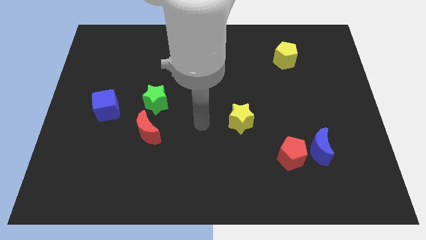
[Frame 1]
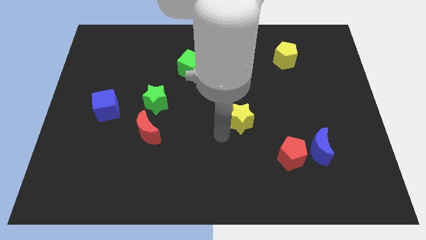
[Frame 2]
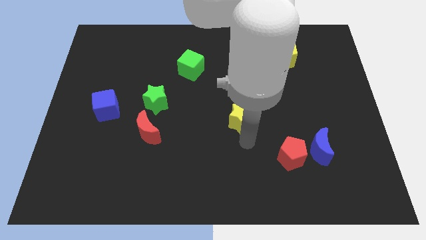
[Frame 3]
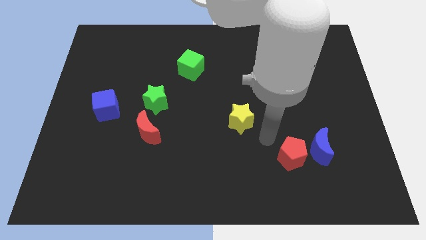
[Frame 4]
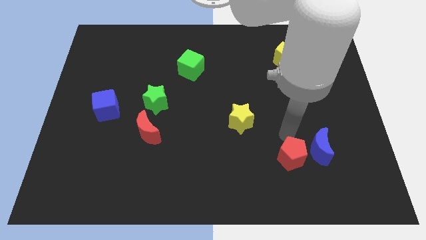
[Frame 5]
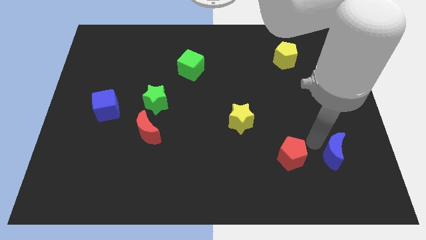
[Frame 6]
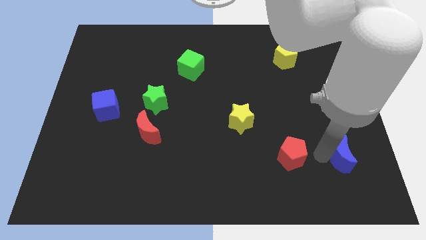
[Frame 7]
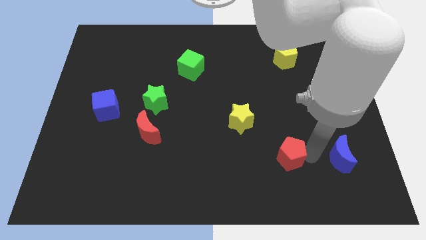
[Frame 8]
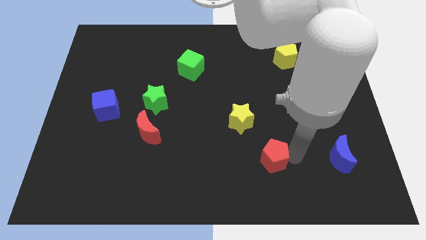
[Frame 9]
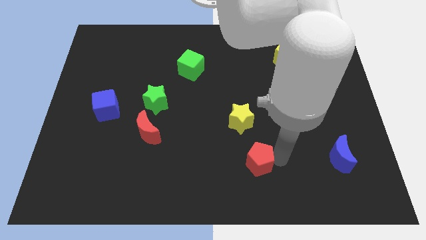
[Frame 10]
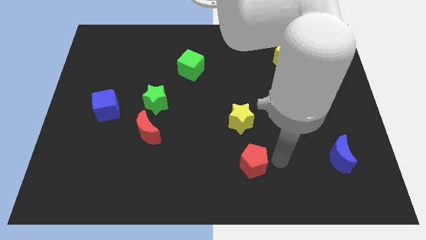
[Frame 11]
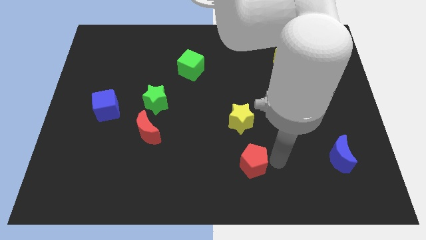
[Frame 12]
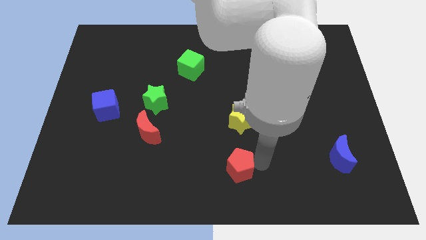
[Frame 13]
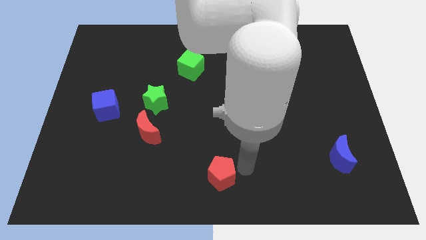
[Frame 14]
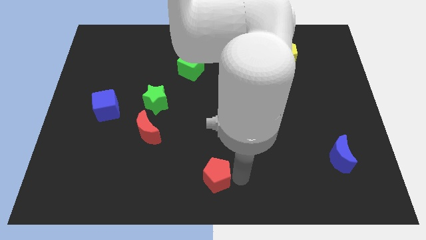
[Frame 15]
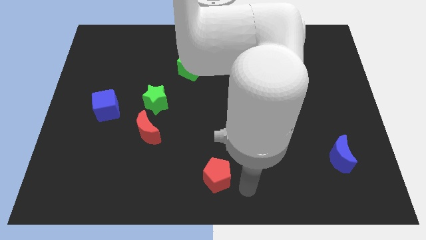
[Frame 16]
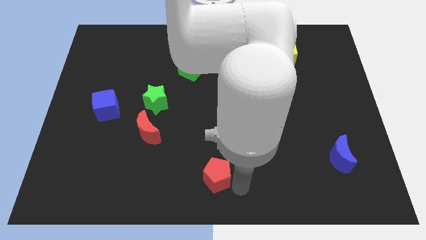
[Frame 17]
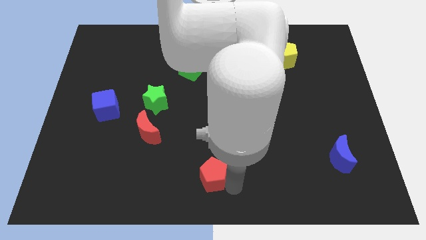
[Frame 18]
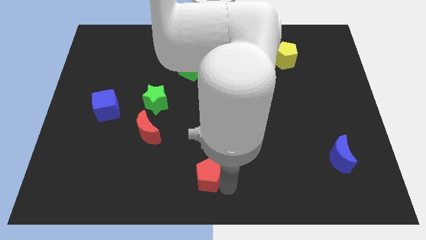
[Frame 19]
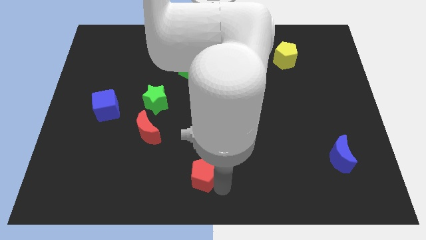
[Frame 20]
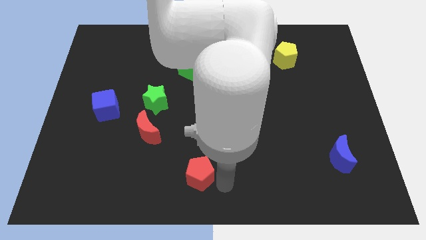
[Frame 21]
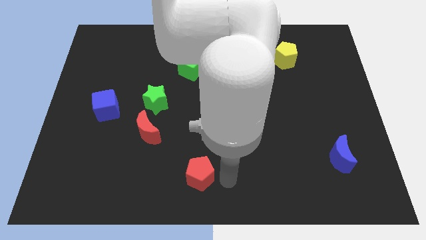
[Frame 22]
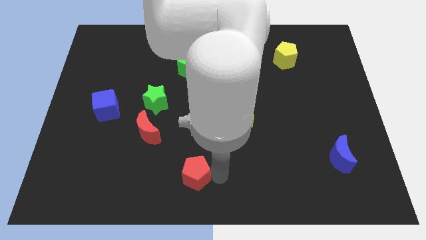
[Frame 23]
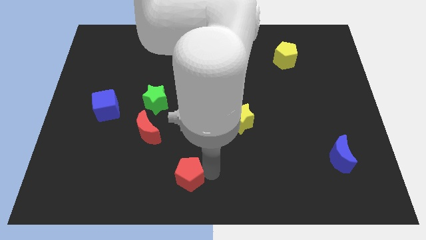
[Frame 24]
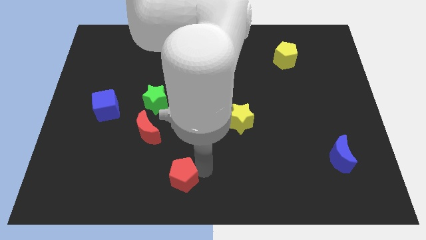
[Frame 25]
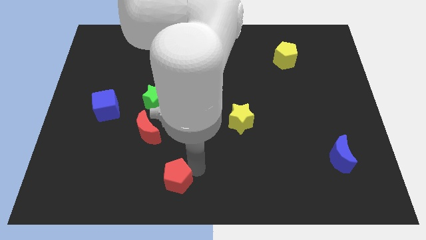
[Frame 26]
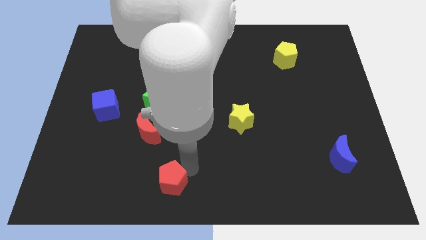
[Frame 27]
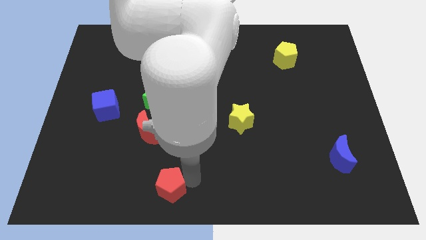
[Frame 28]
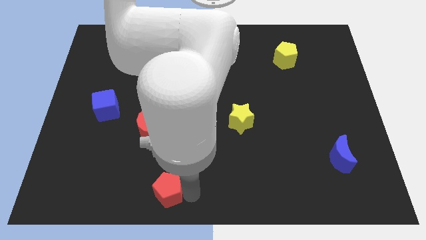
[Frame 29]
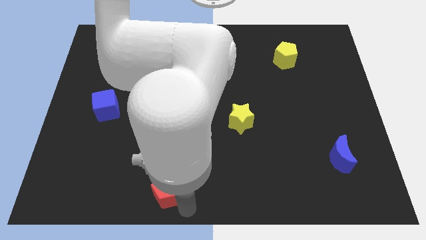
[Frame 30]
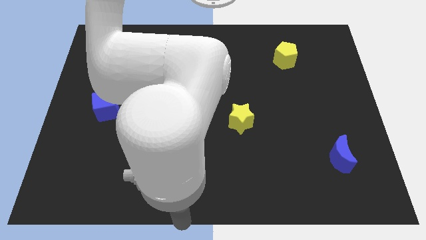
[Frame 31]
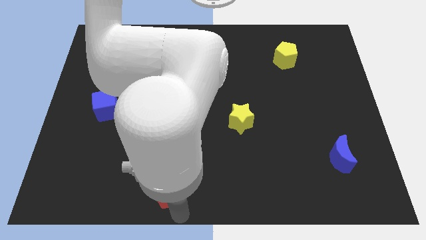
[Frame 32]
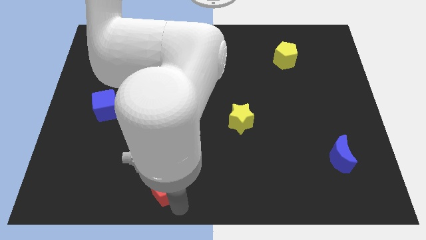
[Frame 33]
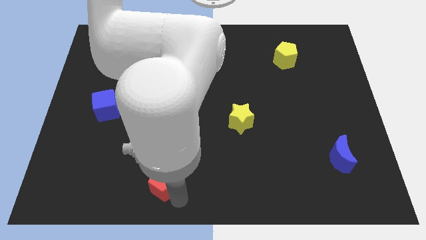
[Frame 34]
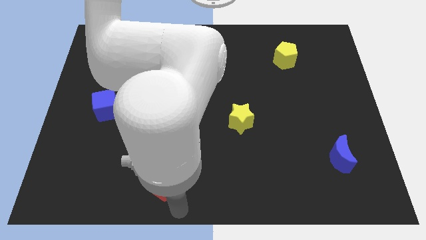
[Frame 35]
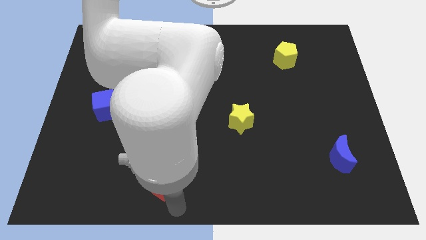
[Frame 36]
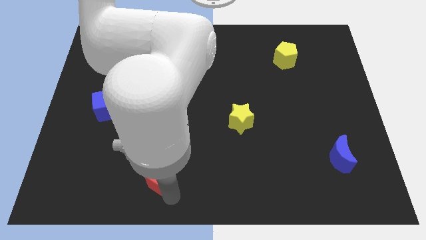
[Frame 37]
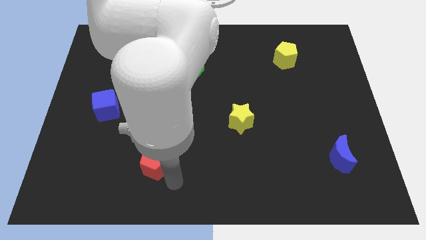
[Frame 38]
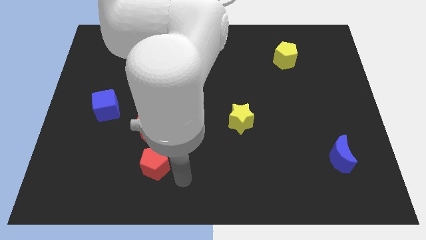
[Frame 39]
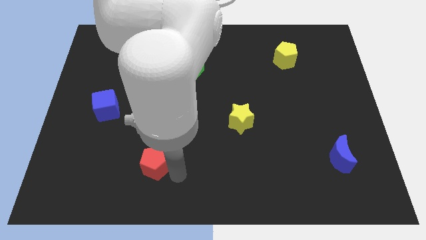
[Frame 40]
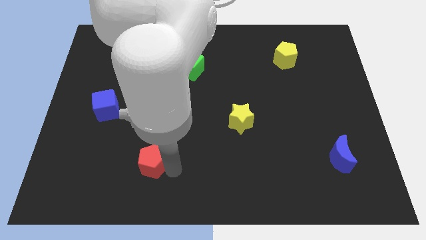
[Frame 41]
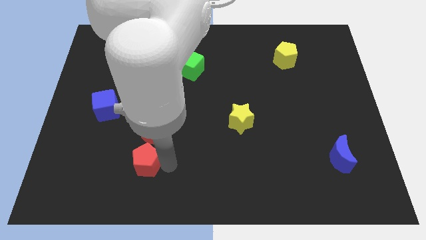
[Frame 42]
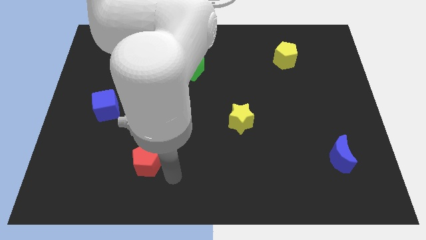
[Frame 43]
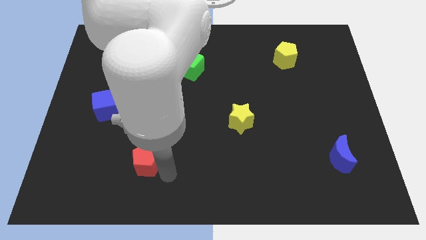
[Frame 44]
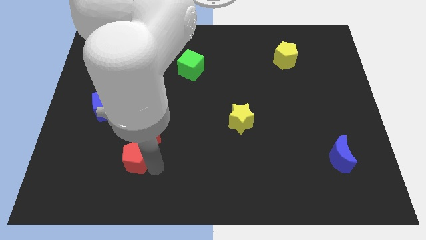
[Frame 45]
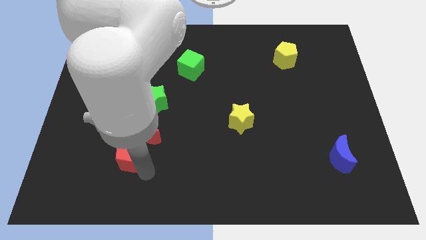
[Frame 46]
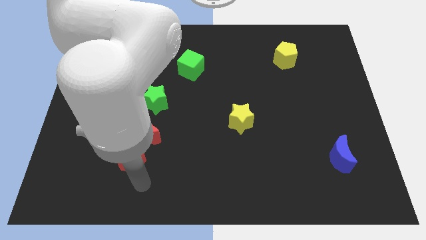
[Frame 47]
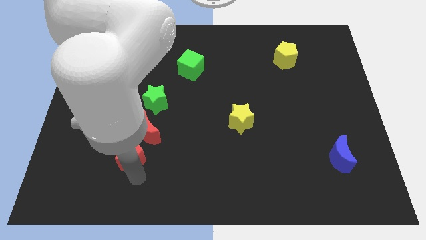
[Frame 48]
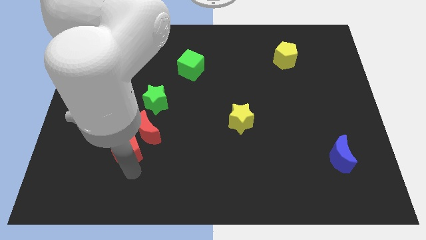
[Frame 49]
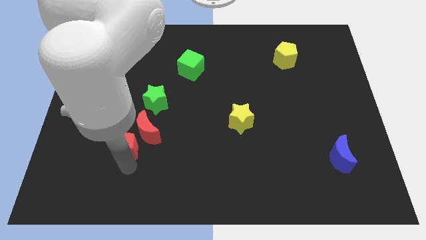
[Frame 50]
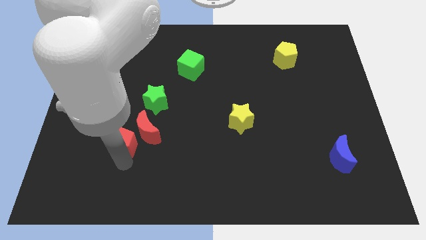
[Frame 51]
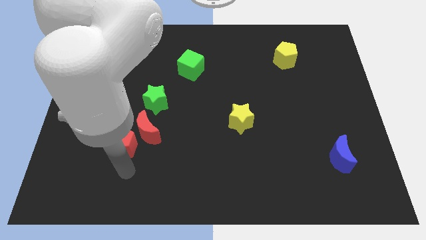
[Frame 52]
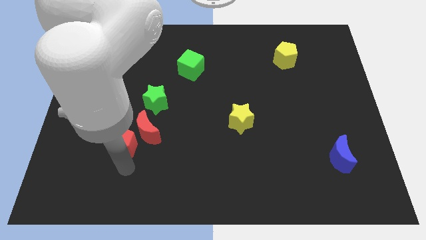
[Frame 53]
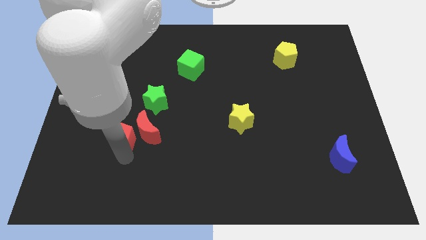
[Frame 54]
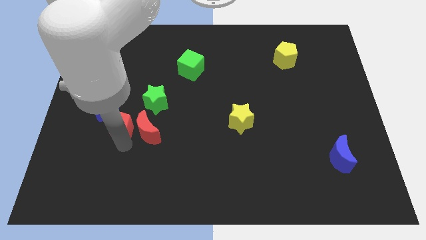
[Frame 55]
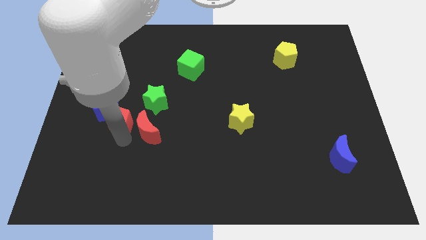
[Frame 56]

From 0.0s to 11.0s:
slide the red pentagon to the blue cube

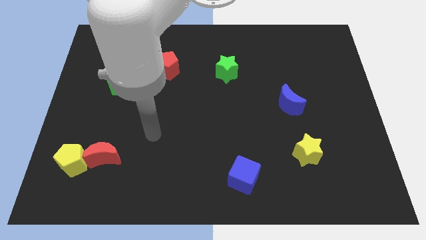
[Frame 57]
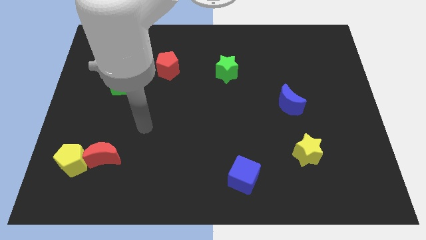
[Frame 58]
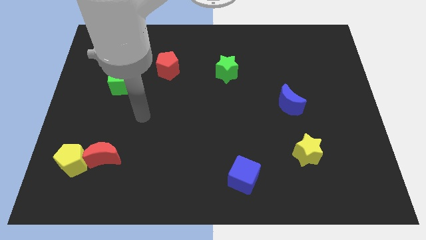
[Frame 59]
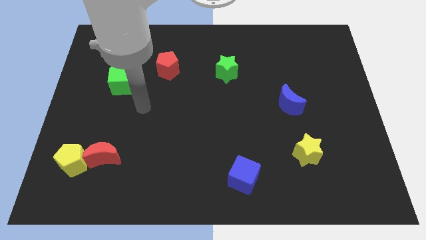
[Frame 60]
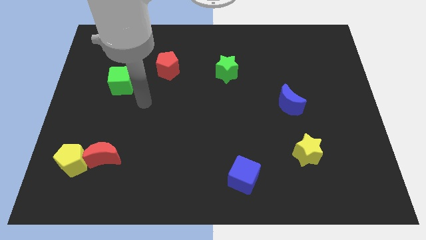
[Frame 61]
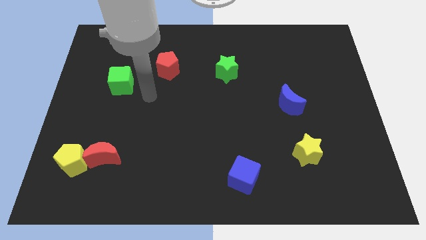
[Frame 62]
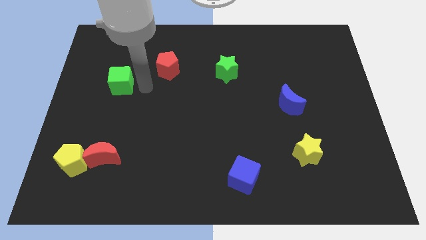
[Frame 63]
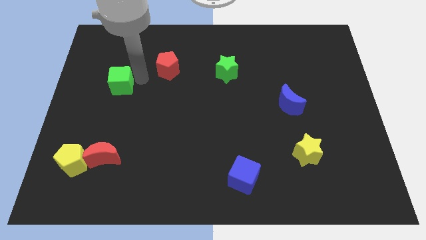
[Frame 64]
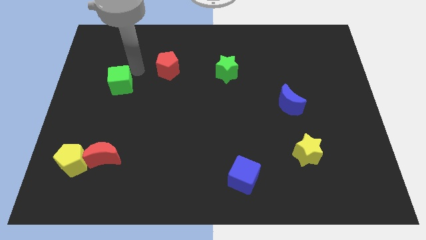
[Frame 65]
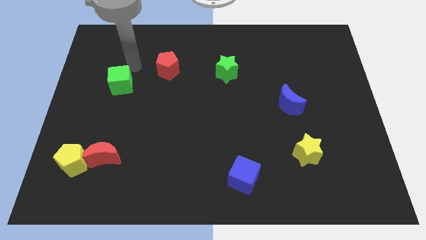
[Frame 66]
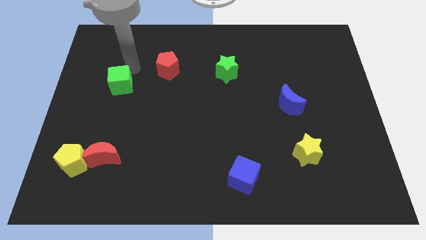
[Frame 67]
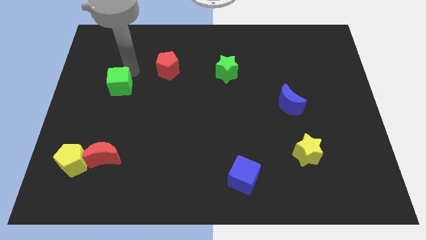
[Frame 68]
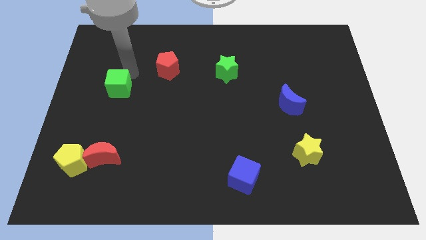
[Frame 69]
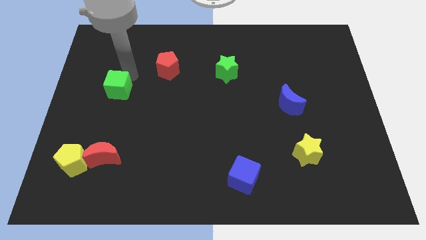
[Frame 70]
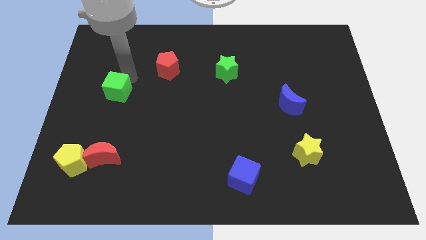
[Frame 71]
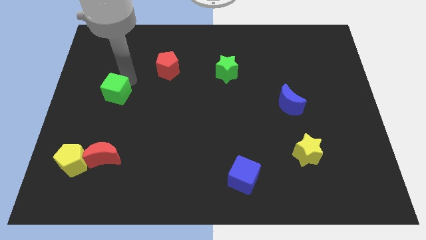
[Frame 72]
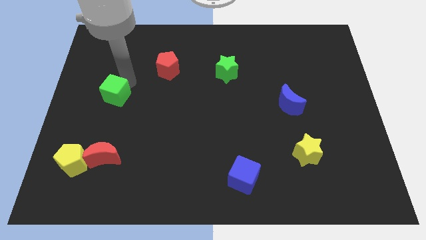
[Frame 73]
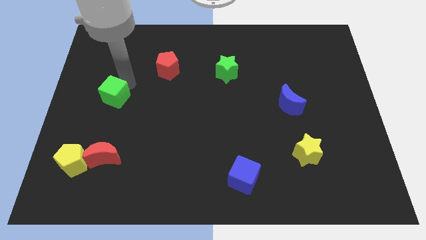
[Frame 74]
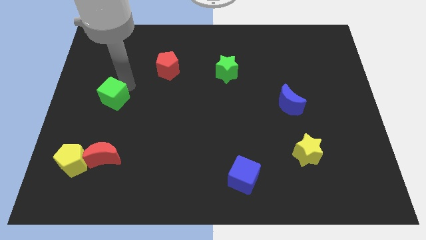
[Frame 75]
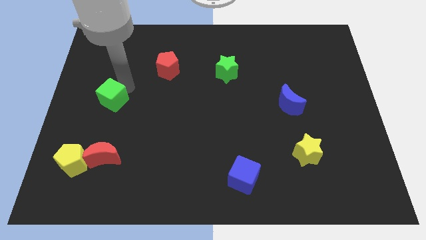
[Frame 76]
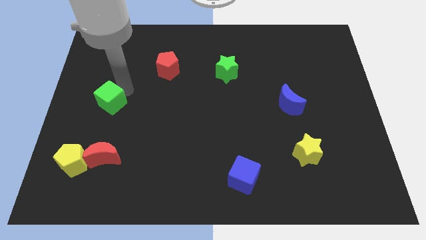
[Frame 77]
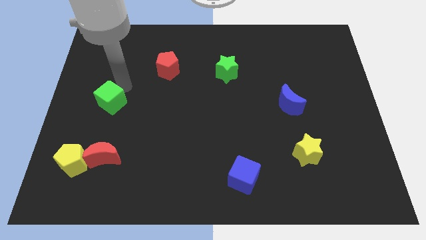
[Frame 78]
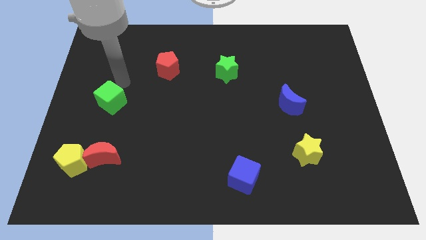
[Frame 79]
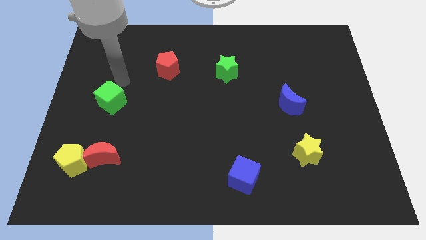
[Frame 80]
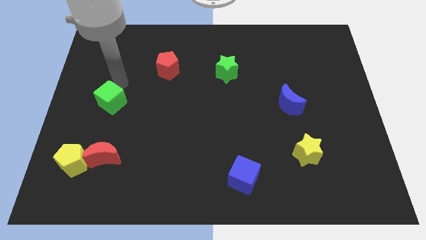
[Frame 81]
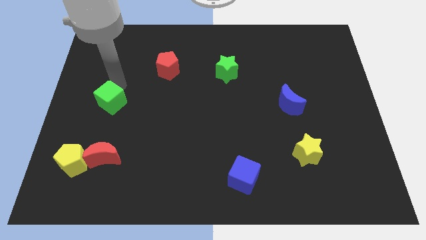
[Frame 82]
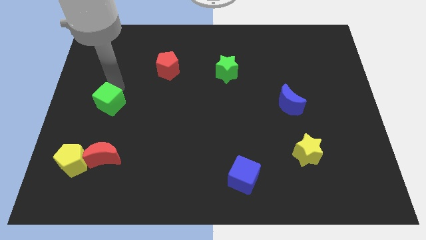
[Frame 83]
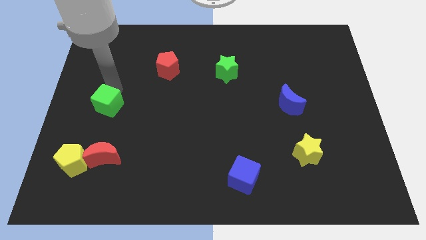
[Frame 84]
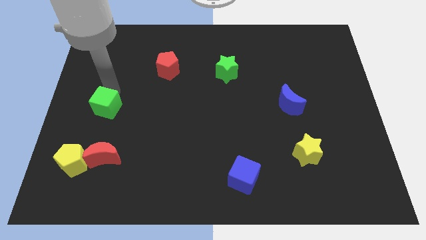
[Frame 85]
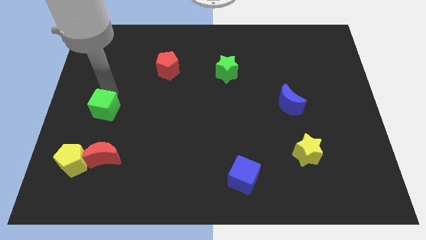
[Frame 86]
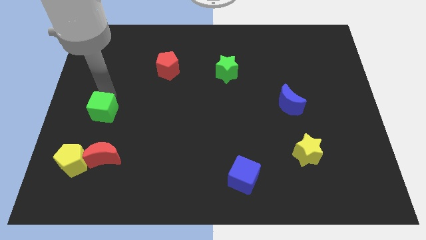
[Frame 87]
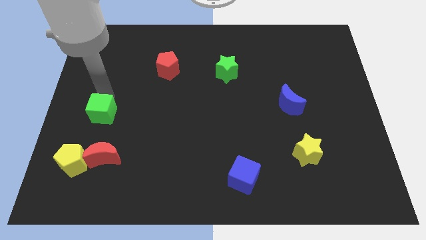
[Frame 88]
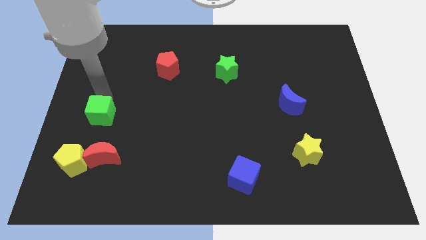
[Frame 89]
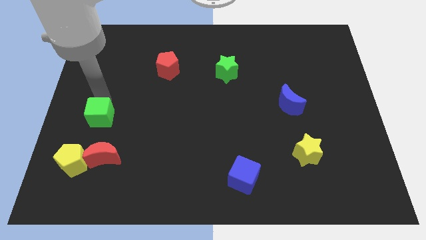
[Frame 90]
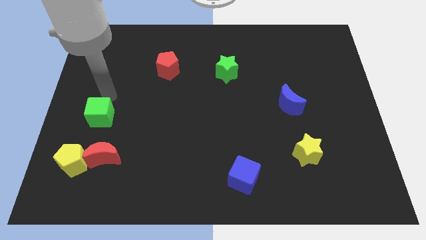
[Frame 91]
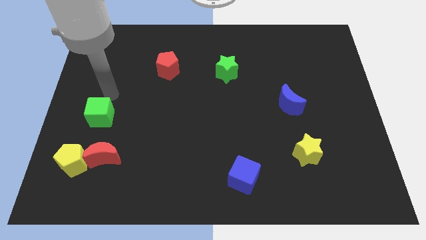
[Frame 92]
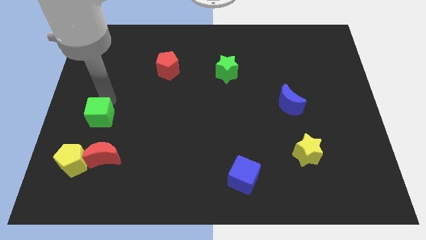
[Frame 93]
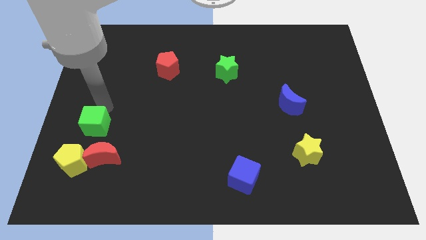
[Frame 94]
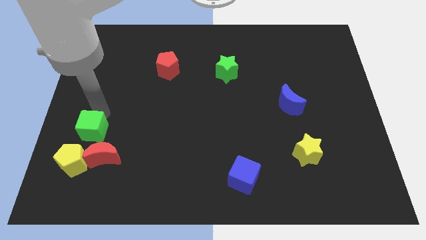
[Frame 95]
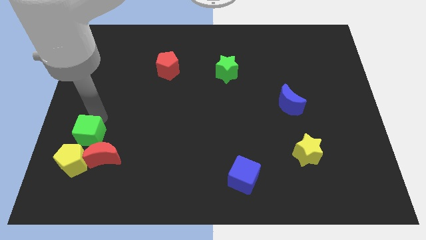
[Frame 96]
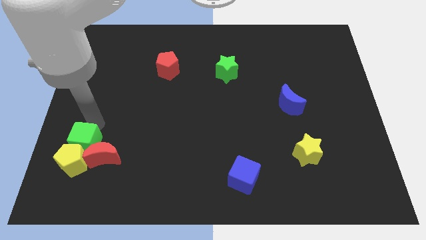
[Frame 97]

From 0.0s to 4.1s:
put the green cube to the yellow pentagon
